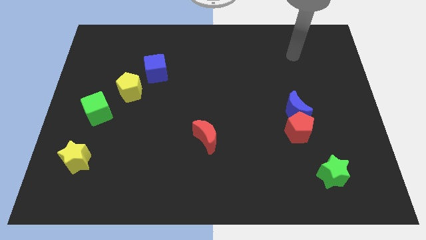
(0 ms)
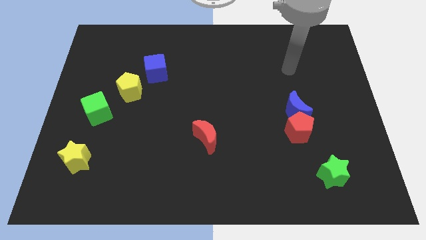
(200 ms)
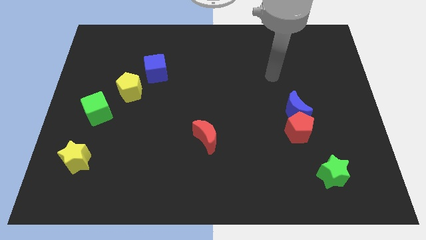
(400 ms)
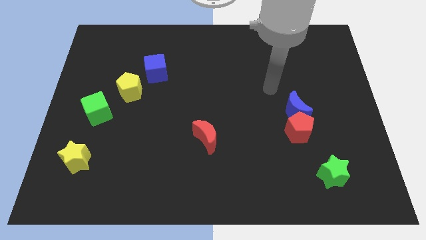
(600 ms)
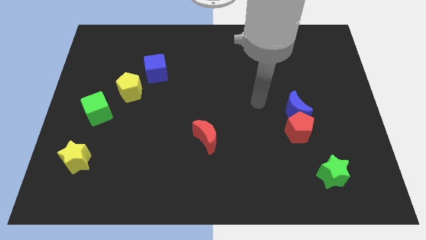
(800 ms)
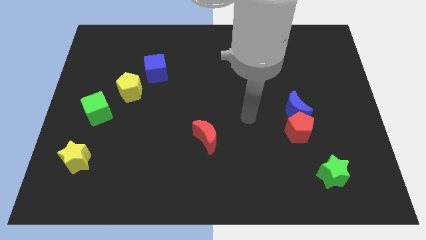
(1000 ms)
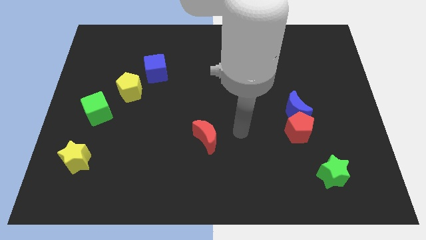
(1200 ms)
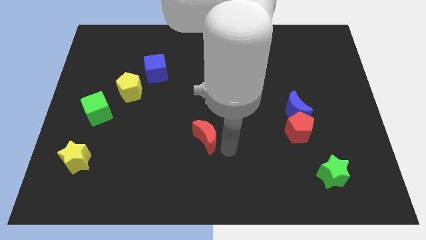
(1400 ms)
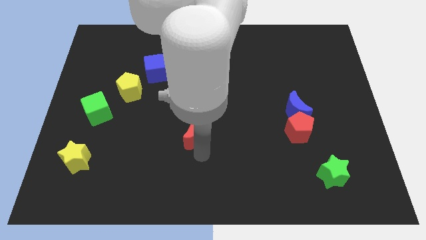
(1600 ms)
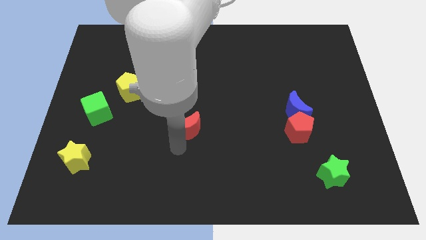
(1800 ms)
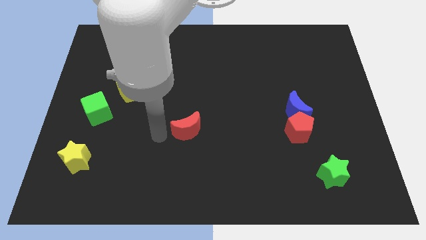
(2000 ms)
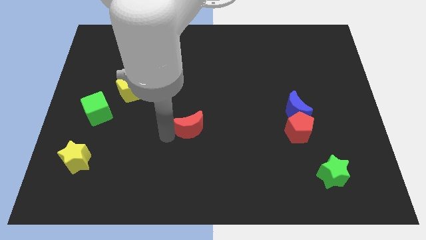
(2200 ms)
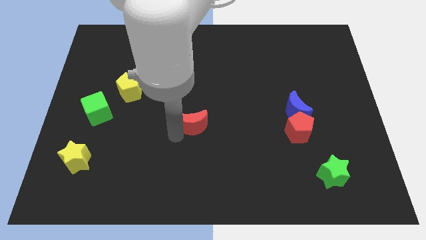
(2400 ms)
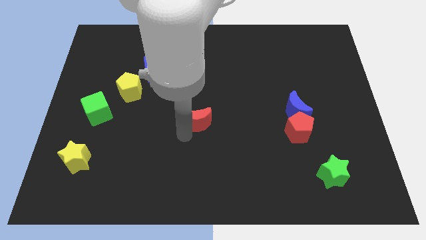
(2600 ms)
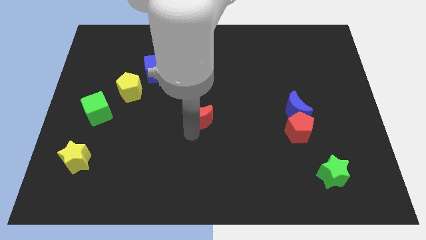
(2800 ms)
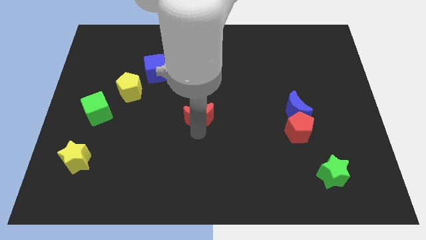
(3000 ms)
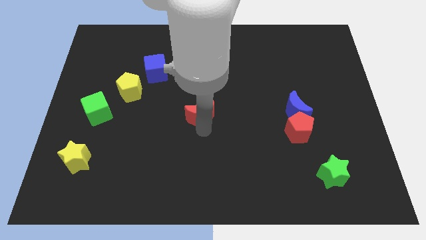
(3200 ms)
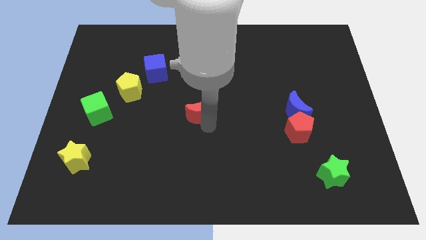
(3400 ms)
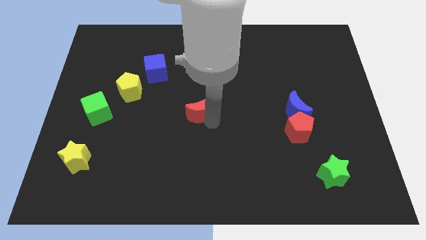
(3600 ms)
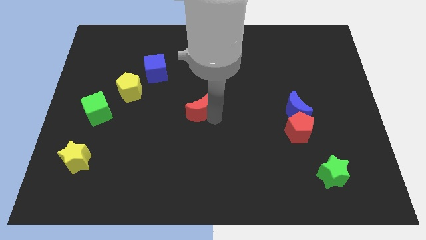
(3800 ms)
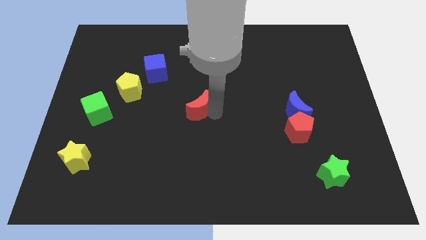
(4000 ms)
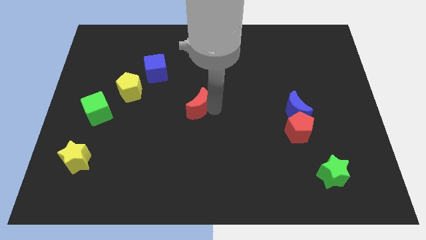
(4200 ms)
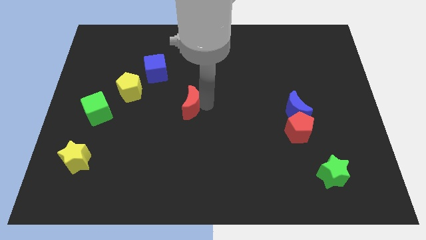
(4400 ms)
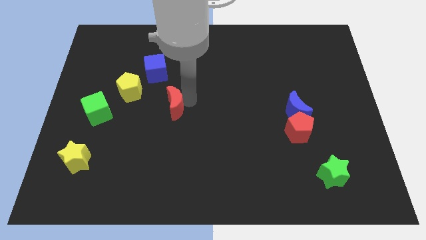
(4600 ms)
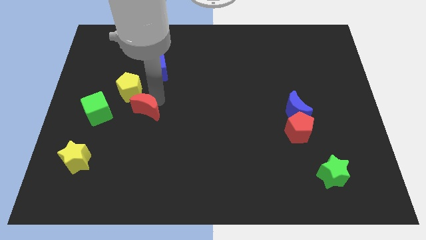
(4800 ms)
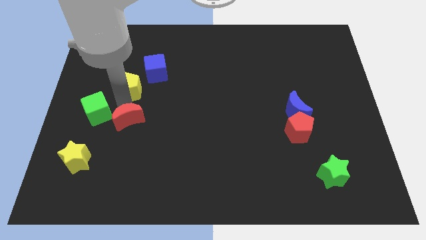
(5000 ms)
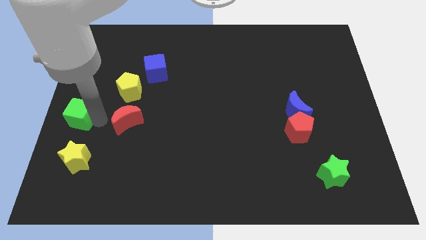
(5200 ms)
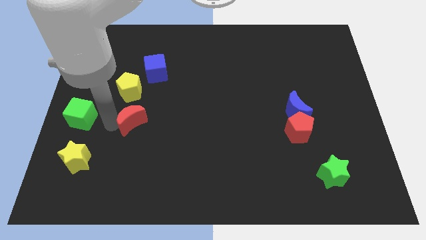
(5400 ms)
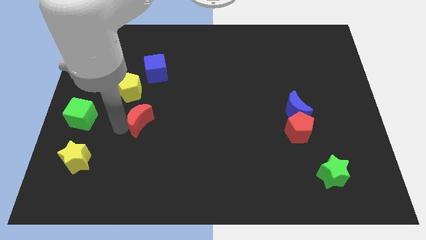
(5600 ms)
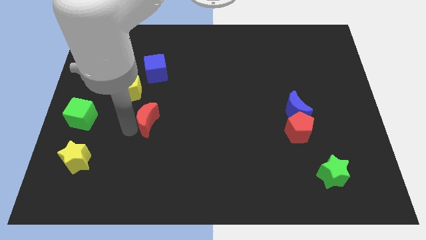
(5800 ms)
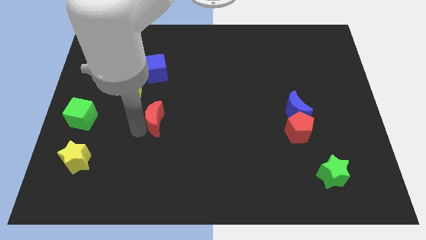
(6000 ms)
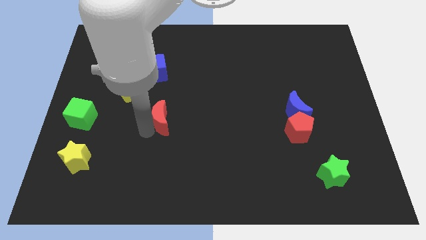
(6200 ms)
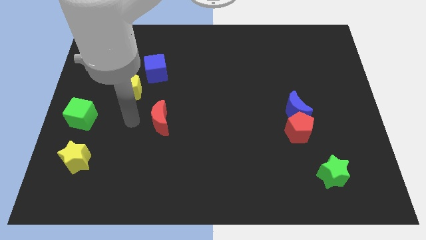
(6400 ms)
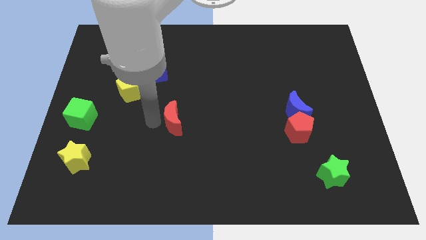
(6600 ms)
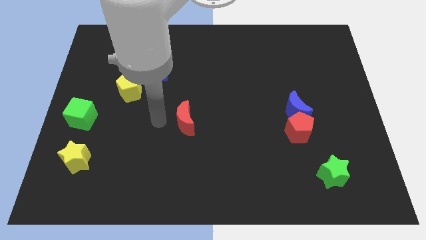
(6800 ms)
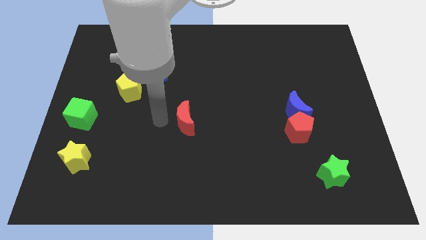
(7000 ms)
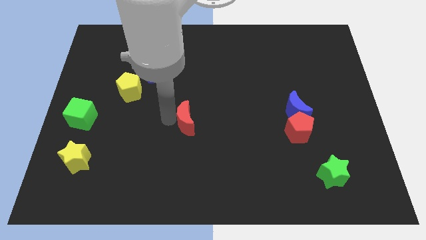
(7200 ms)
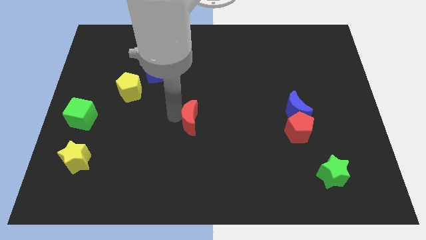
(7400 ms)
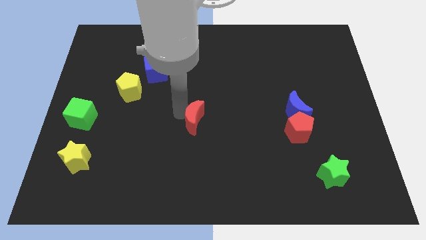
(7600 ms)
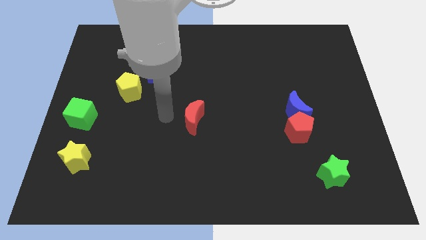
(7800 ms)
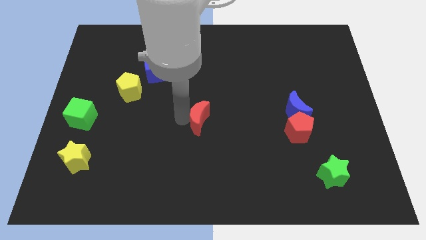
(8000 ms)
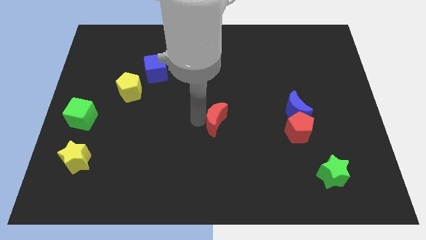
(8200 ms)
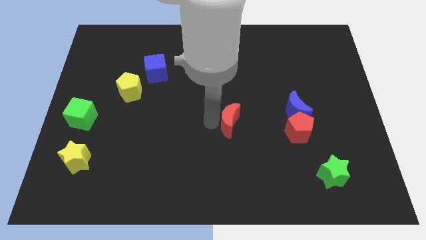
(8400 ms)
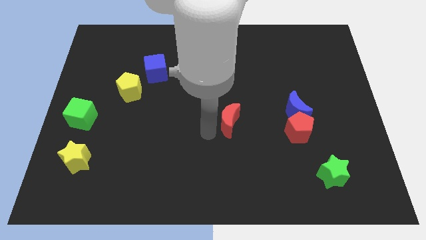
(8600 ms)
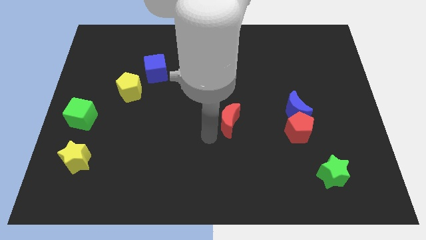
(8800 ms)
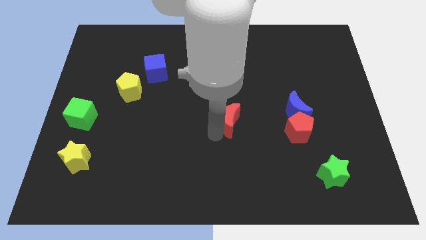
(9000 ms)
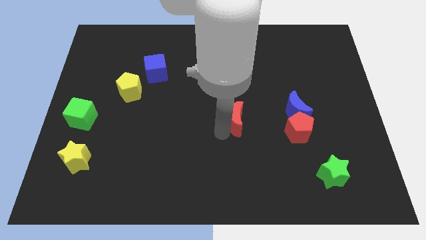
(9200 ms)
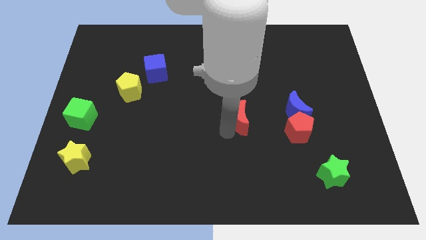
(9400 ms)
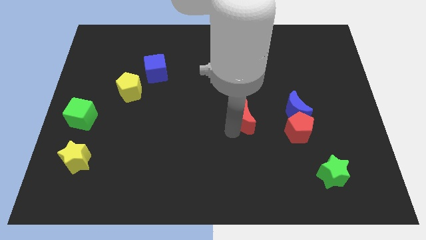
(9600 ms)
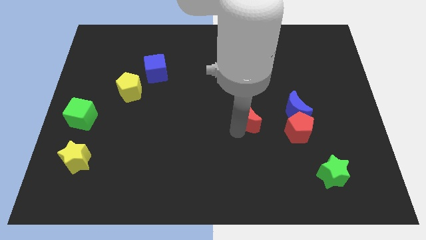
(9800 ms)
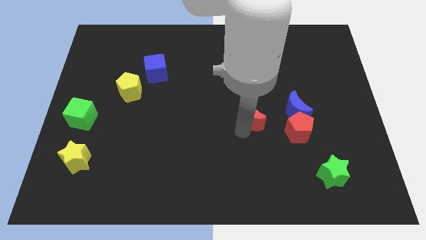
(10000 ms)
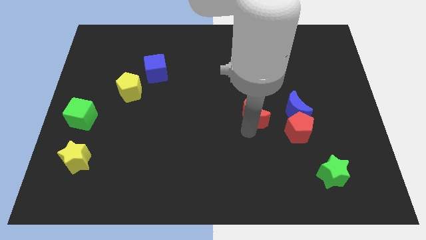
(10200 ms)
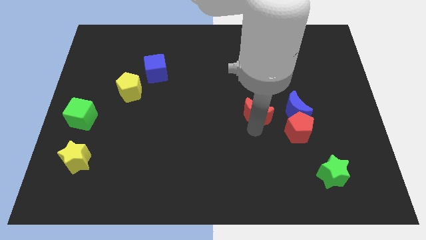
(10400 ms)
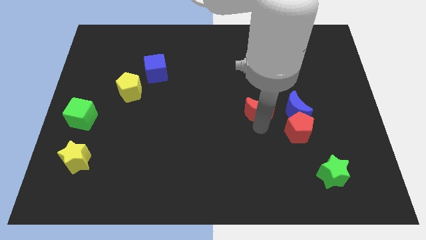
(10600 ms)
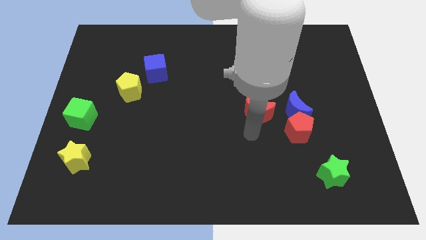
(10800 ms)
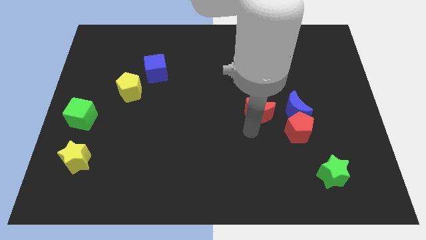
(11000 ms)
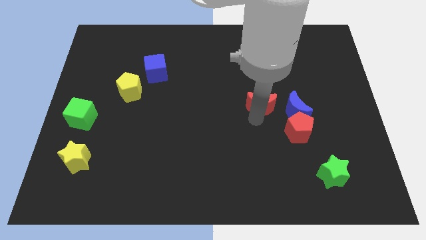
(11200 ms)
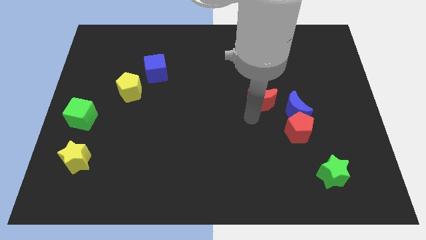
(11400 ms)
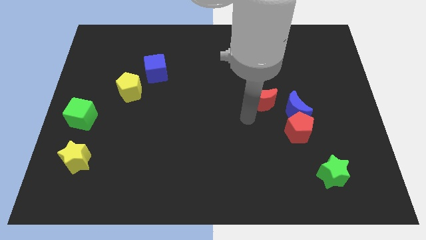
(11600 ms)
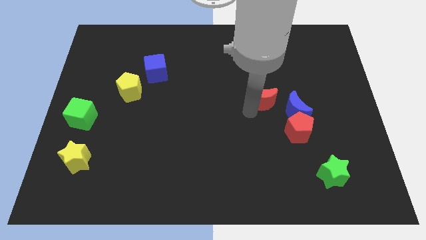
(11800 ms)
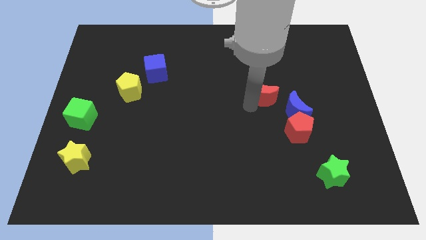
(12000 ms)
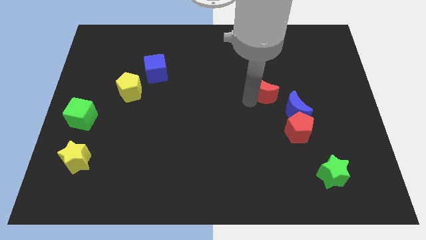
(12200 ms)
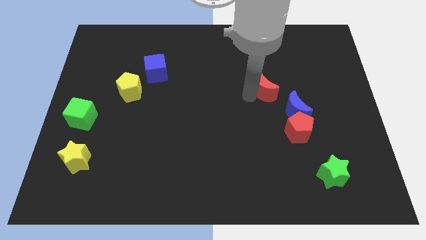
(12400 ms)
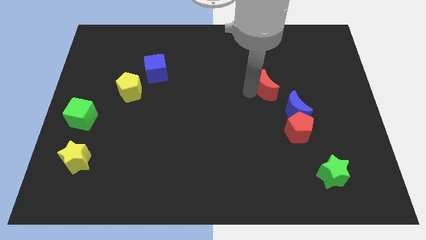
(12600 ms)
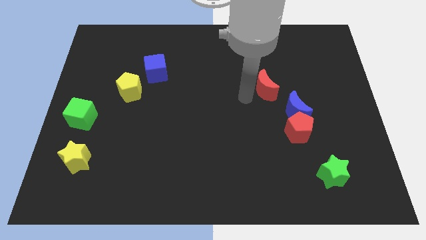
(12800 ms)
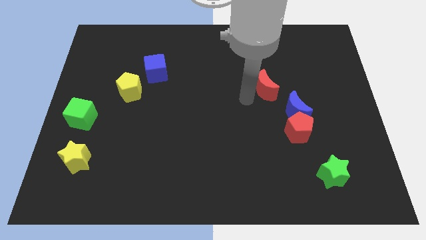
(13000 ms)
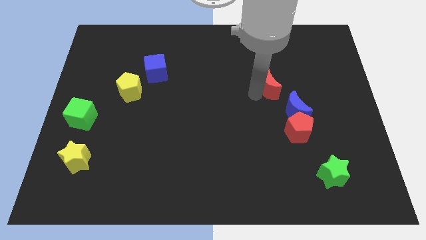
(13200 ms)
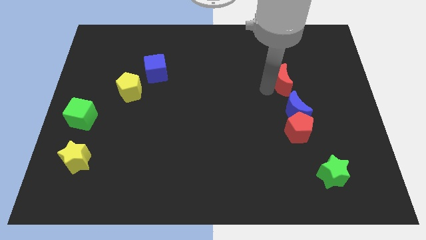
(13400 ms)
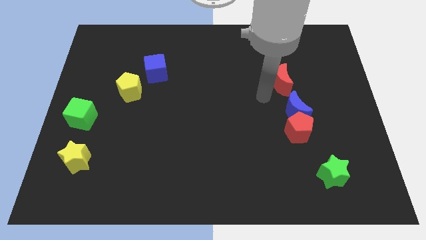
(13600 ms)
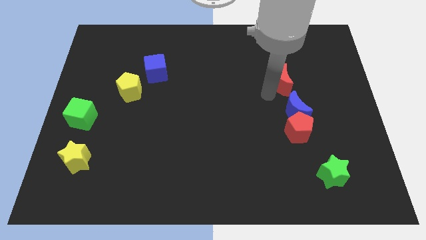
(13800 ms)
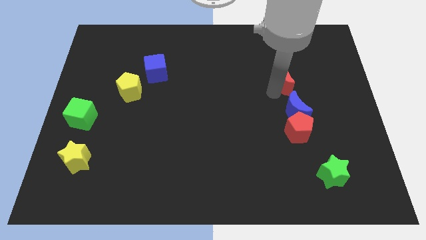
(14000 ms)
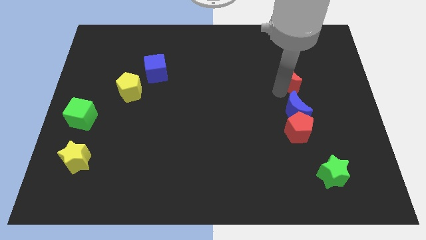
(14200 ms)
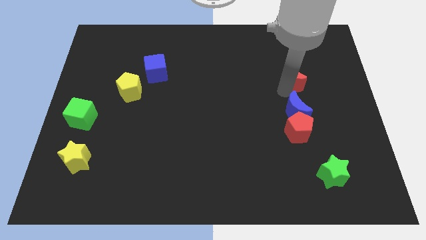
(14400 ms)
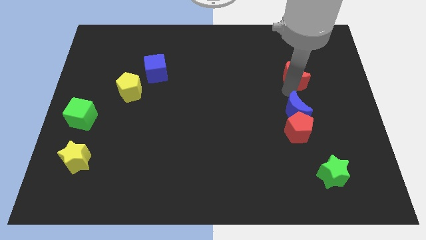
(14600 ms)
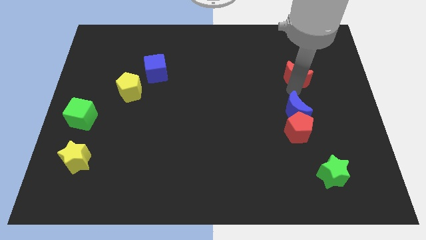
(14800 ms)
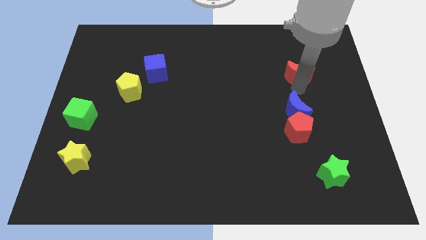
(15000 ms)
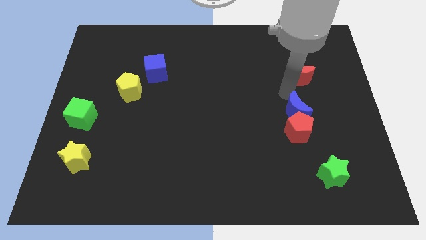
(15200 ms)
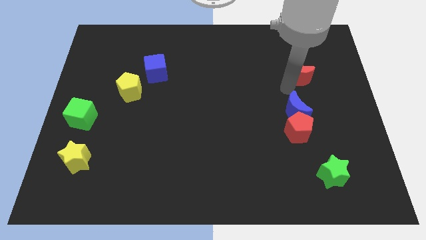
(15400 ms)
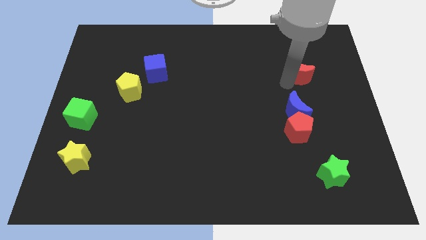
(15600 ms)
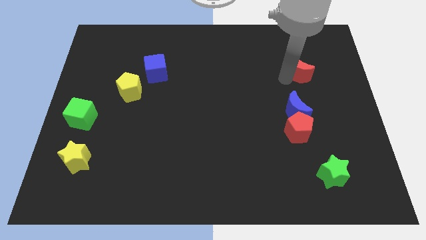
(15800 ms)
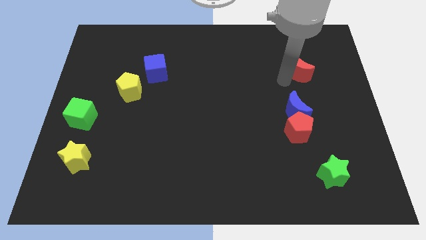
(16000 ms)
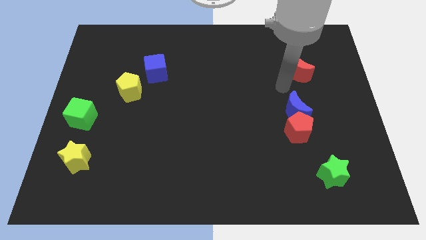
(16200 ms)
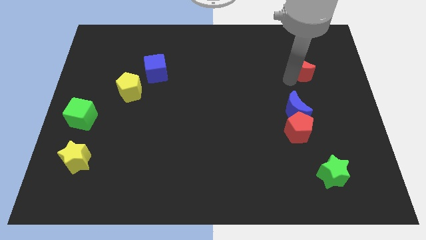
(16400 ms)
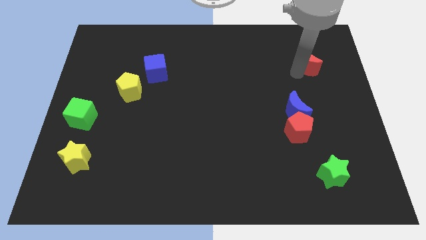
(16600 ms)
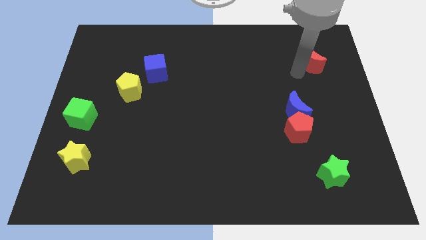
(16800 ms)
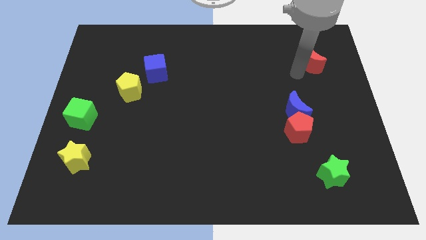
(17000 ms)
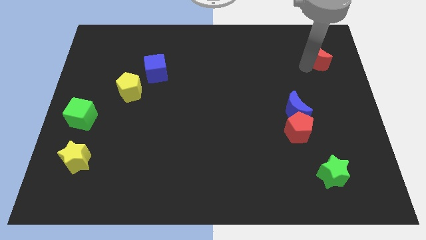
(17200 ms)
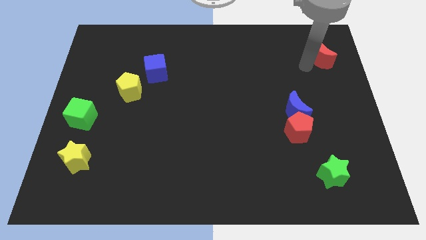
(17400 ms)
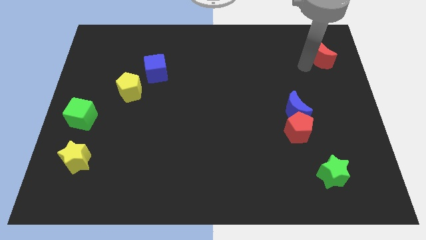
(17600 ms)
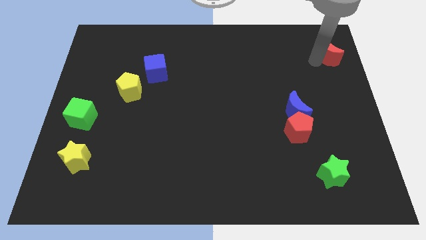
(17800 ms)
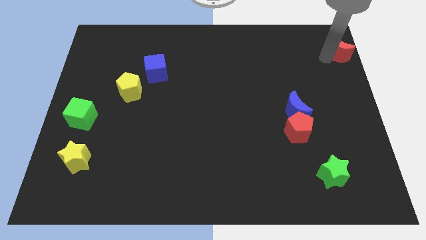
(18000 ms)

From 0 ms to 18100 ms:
push the red moon to the top right
